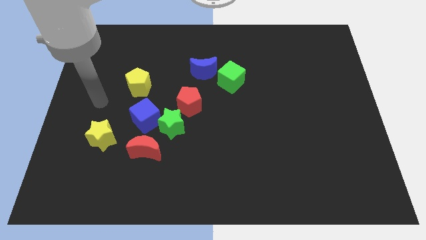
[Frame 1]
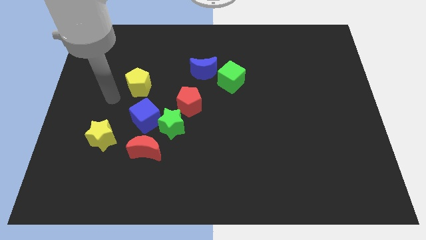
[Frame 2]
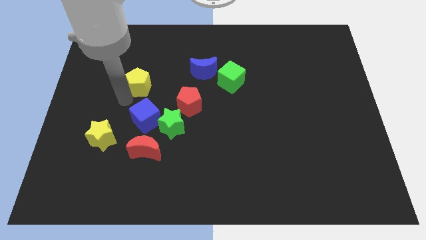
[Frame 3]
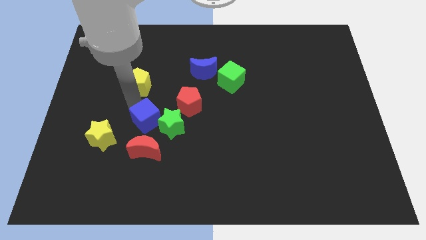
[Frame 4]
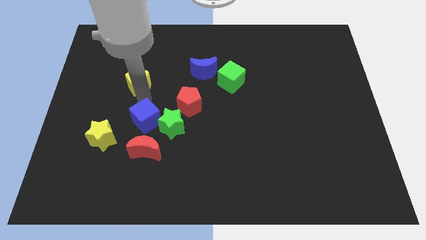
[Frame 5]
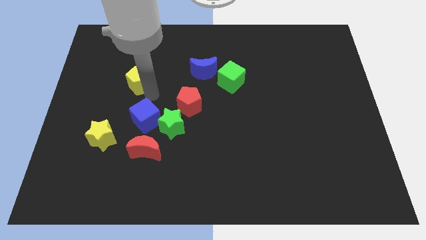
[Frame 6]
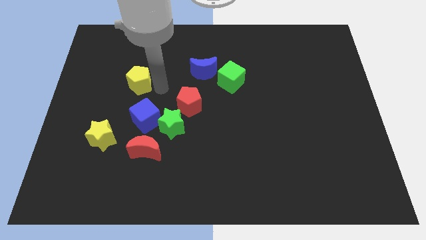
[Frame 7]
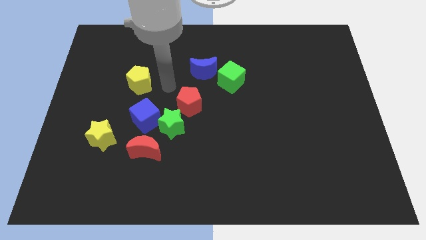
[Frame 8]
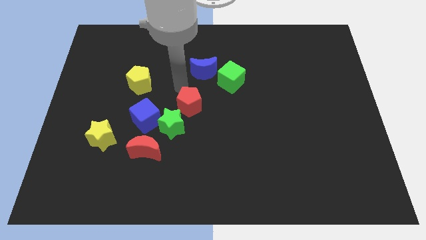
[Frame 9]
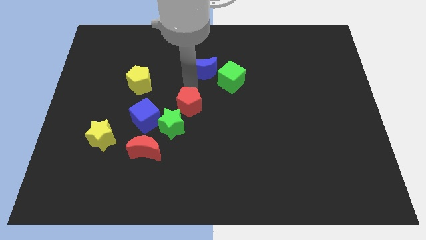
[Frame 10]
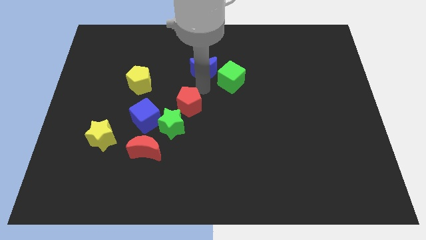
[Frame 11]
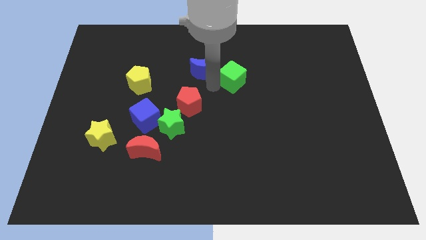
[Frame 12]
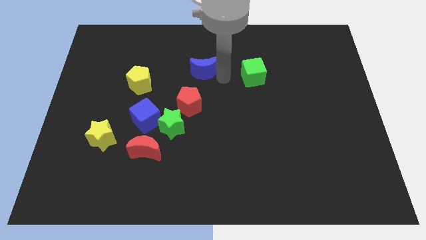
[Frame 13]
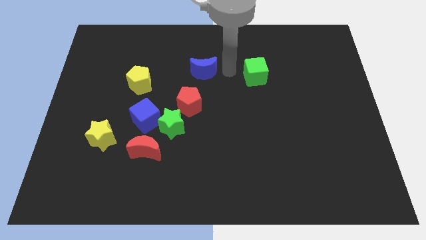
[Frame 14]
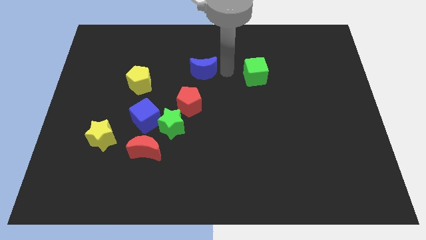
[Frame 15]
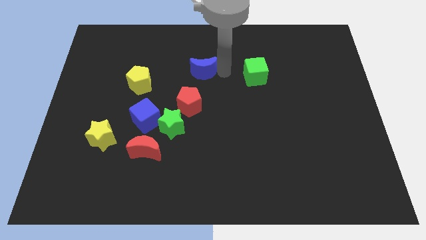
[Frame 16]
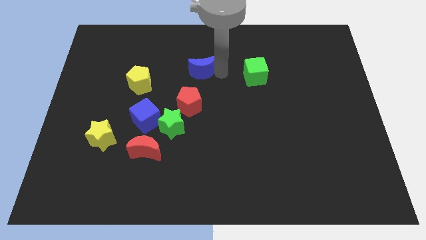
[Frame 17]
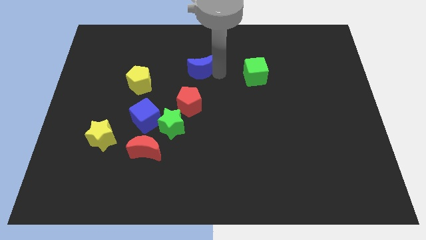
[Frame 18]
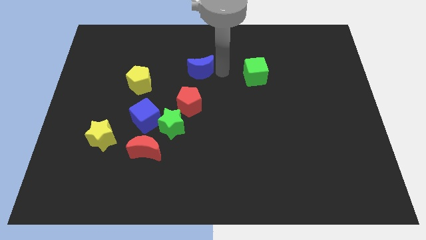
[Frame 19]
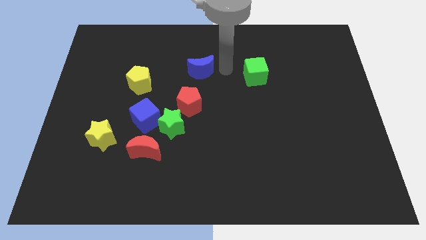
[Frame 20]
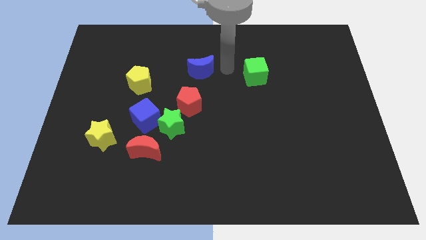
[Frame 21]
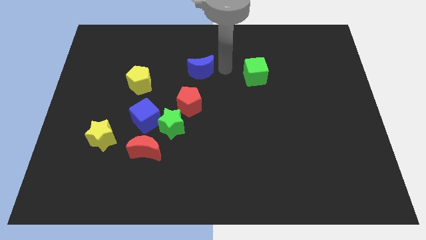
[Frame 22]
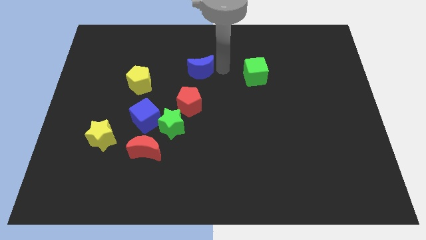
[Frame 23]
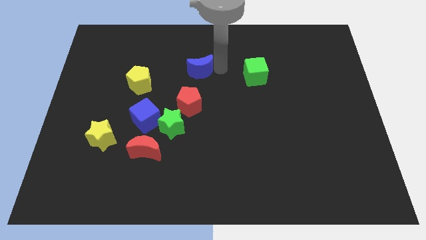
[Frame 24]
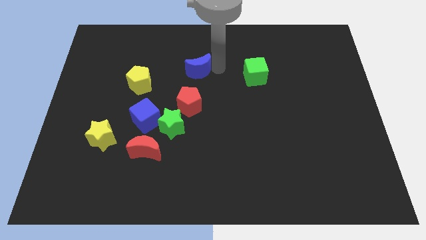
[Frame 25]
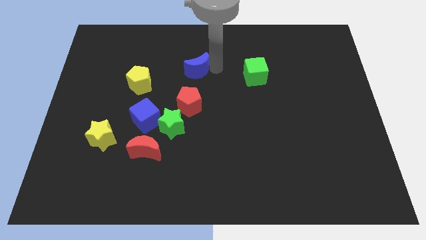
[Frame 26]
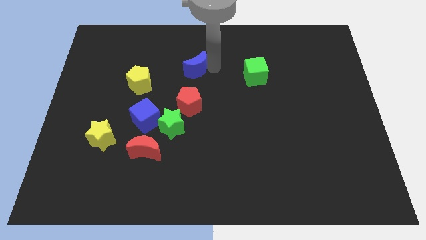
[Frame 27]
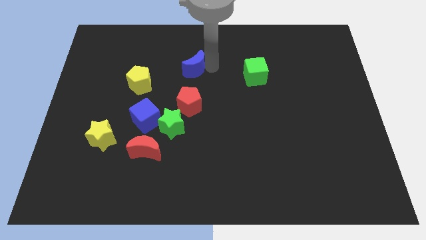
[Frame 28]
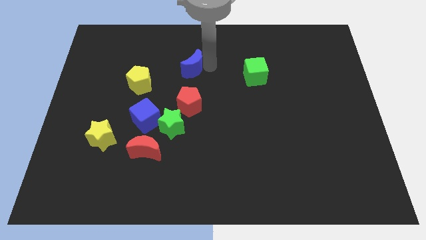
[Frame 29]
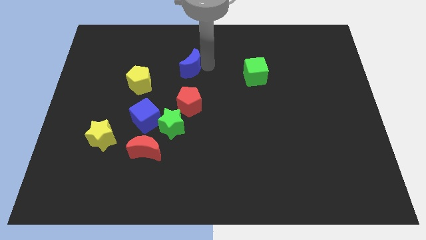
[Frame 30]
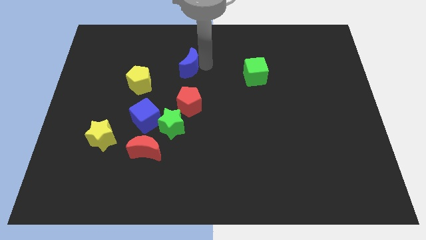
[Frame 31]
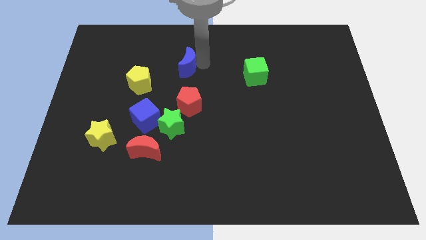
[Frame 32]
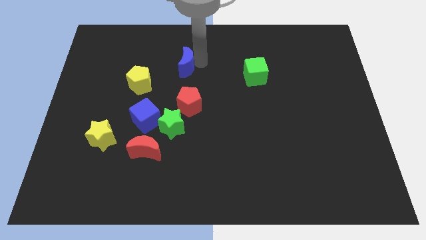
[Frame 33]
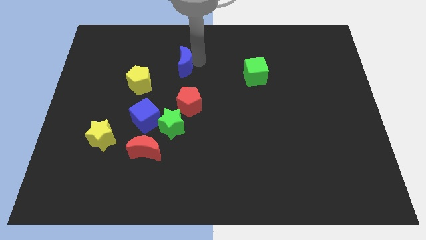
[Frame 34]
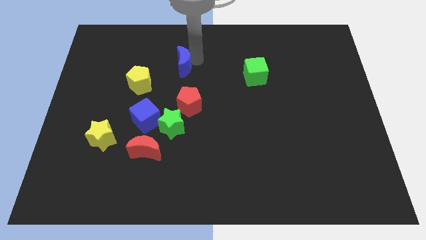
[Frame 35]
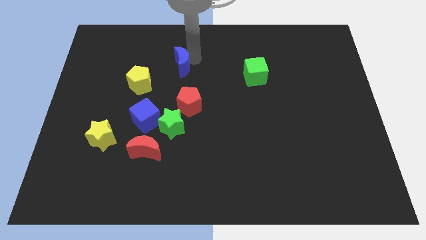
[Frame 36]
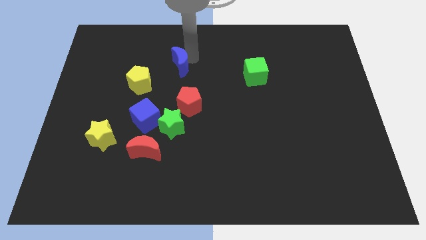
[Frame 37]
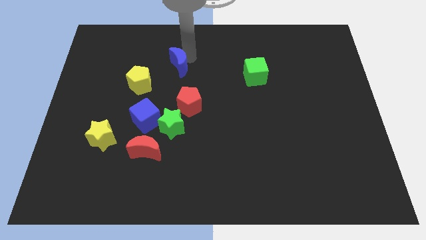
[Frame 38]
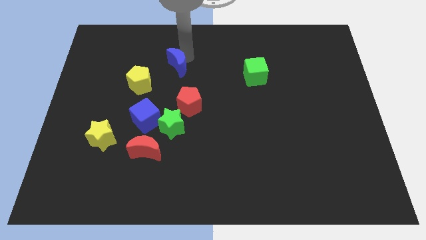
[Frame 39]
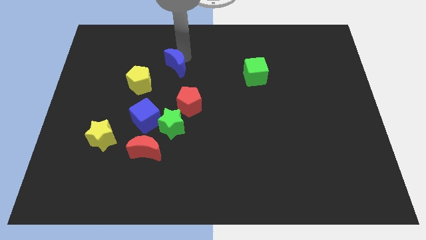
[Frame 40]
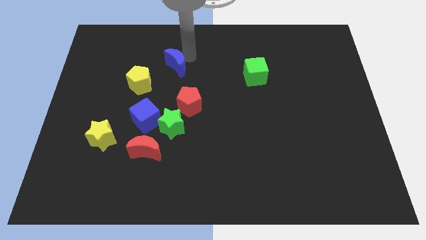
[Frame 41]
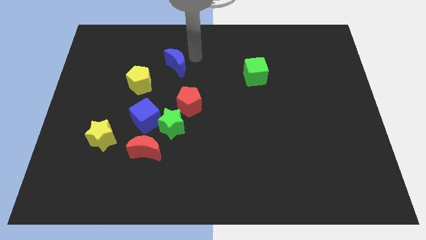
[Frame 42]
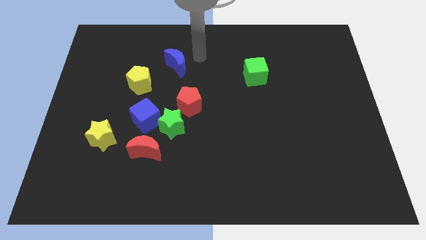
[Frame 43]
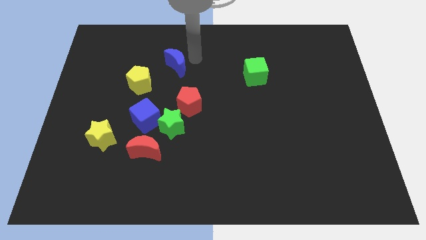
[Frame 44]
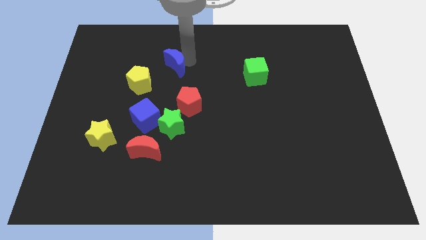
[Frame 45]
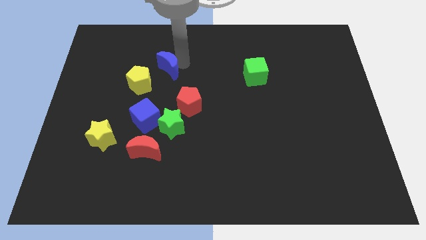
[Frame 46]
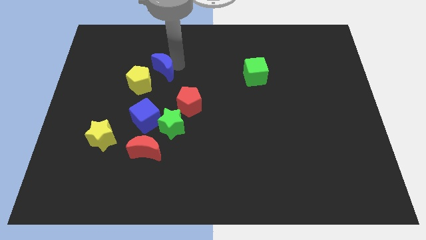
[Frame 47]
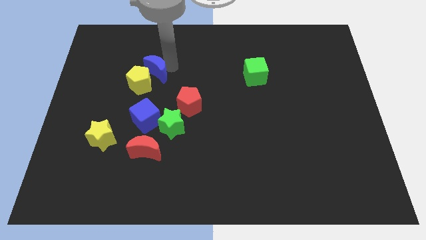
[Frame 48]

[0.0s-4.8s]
put the blue moon towards the yellow pentagon

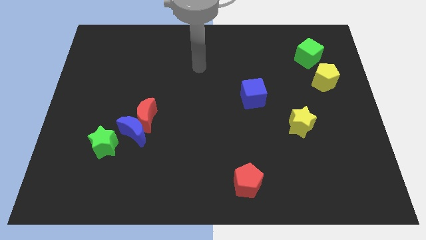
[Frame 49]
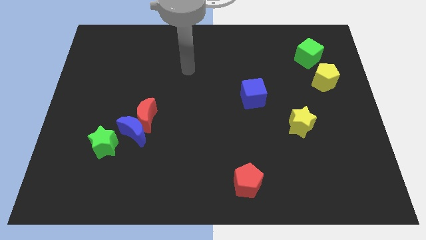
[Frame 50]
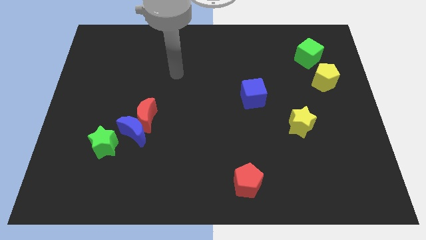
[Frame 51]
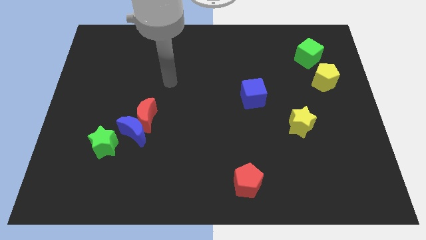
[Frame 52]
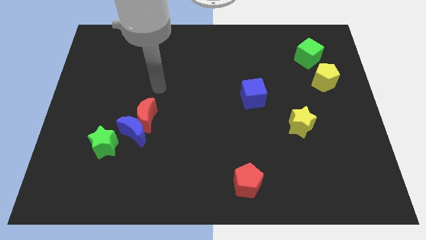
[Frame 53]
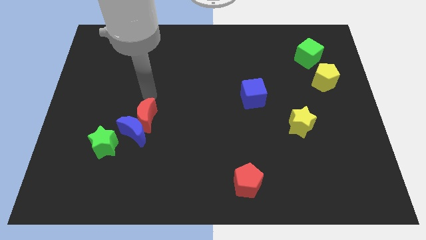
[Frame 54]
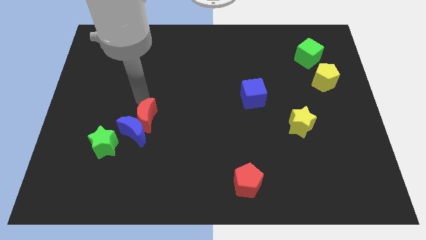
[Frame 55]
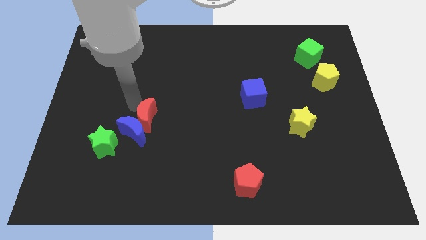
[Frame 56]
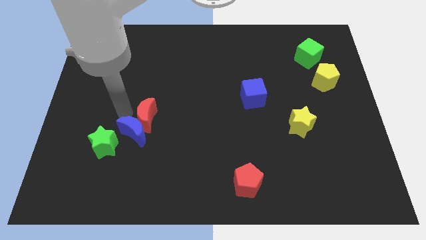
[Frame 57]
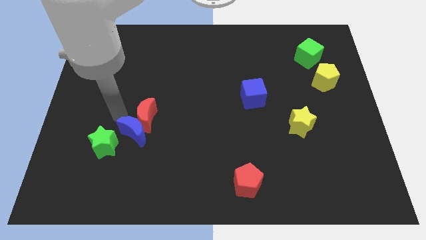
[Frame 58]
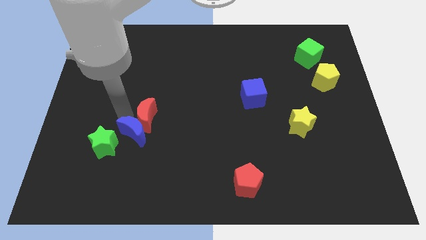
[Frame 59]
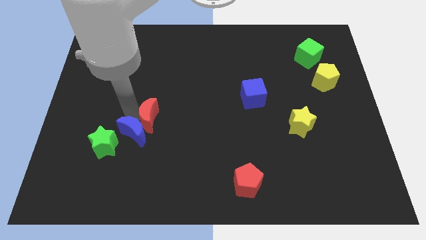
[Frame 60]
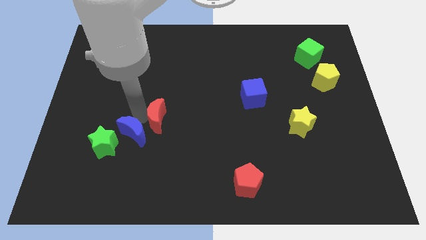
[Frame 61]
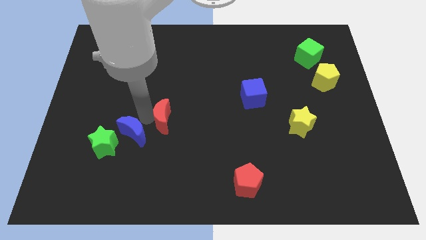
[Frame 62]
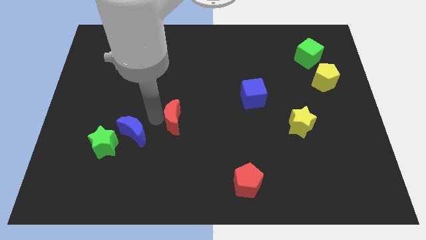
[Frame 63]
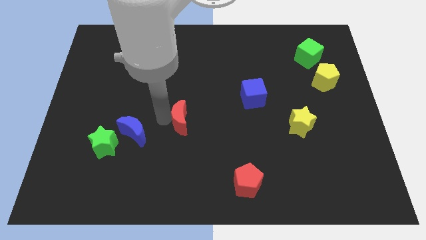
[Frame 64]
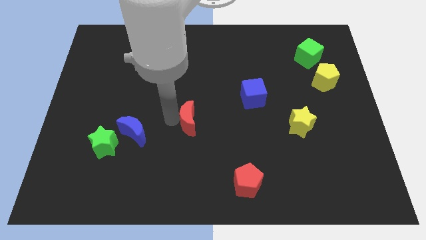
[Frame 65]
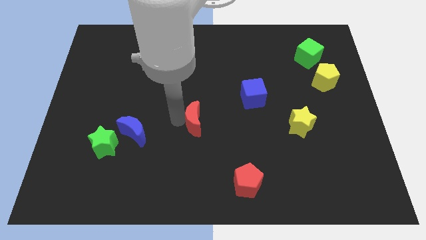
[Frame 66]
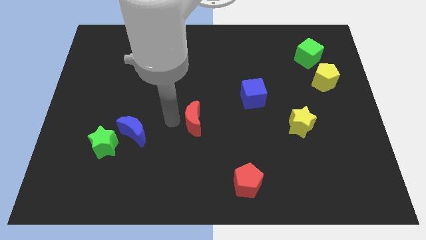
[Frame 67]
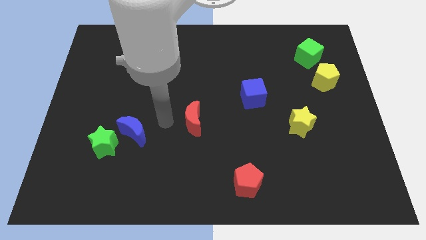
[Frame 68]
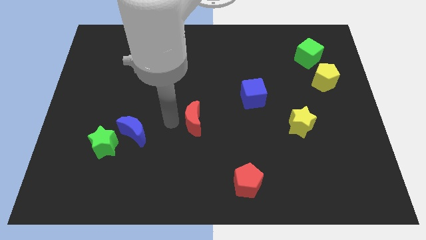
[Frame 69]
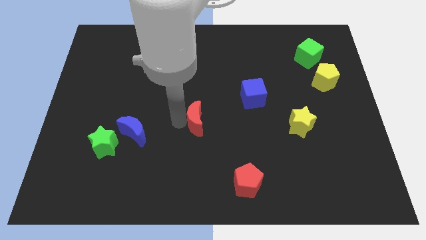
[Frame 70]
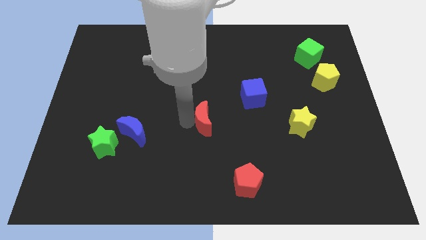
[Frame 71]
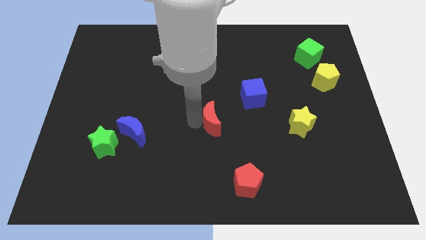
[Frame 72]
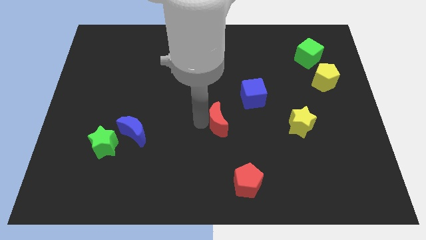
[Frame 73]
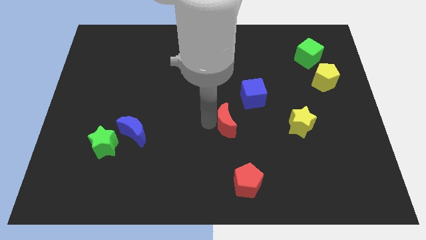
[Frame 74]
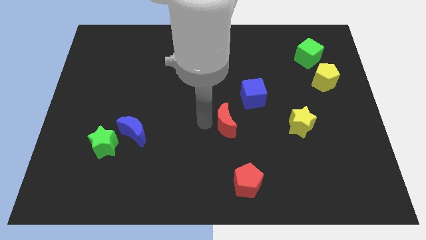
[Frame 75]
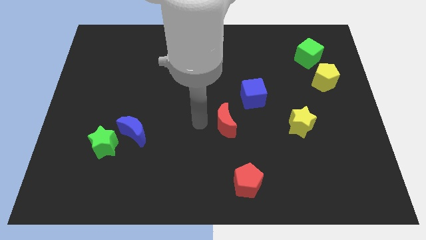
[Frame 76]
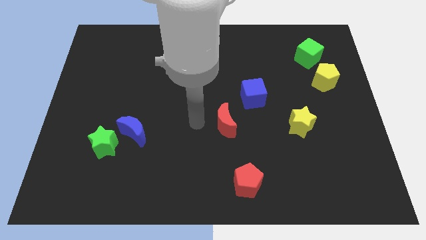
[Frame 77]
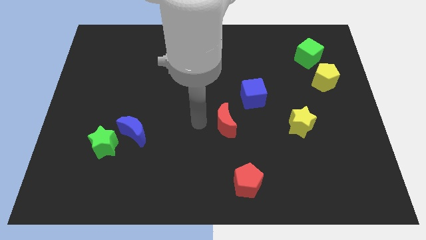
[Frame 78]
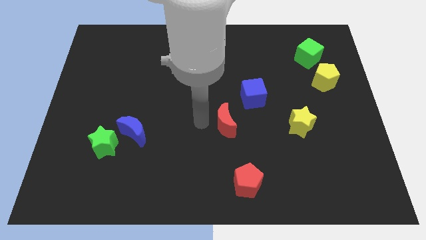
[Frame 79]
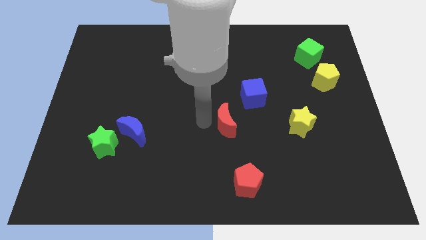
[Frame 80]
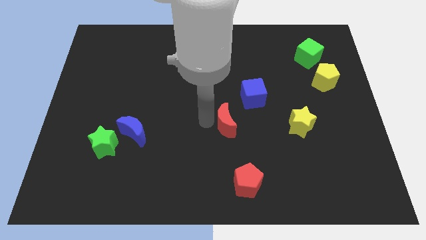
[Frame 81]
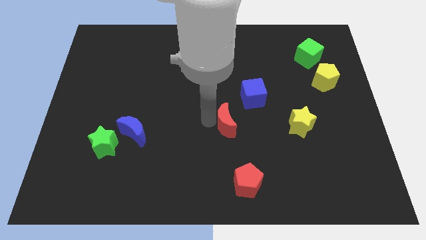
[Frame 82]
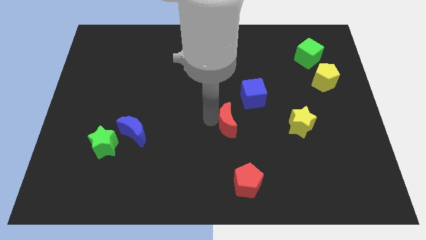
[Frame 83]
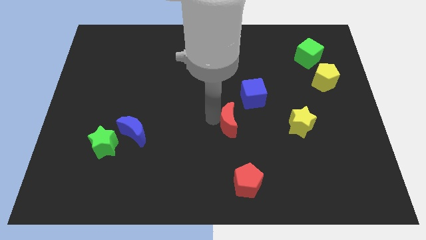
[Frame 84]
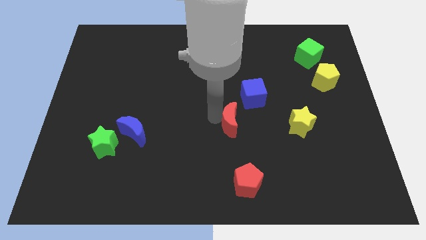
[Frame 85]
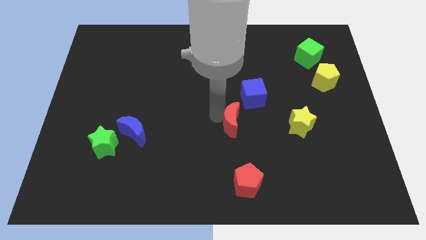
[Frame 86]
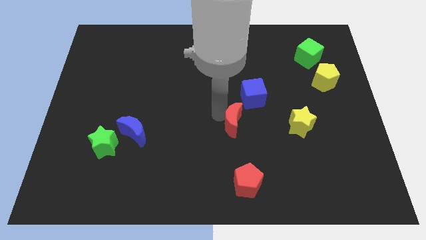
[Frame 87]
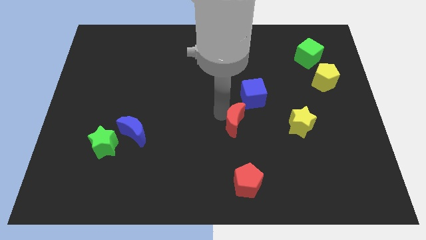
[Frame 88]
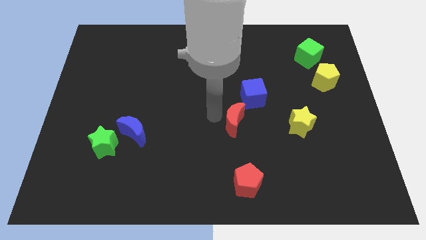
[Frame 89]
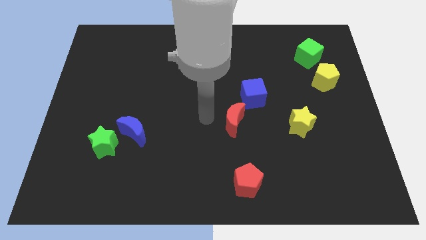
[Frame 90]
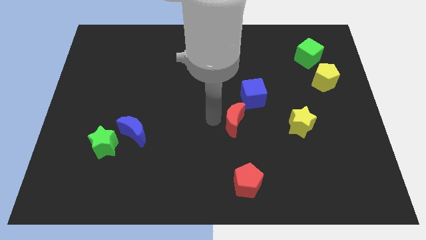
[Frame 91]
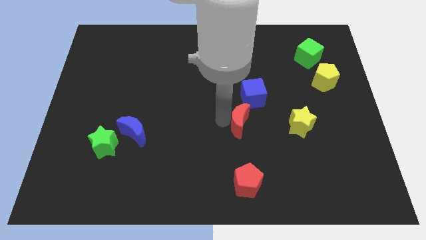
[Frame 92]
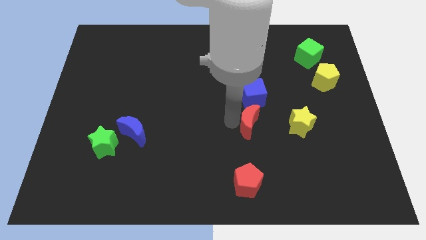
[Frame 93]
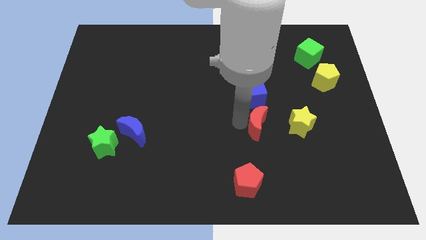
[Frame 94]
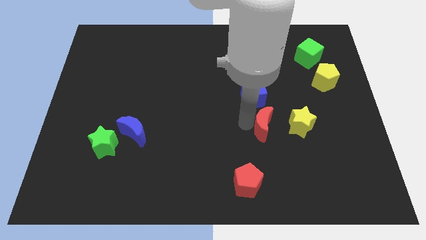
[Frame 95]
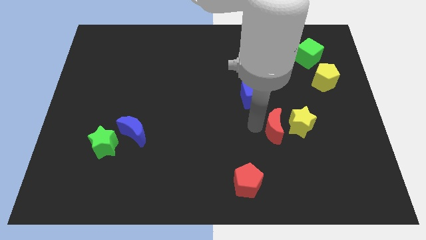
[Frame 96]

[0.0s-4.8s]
push the red moon next to the yellow star
